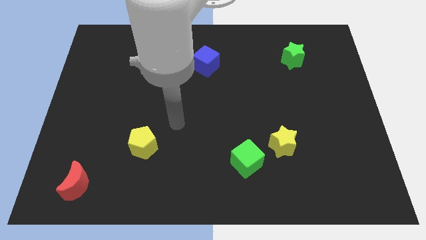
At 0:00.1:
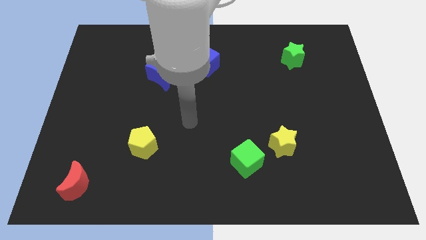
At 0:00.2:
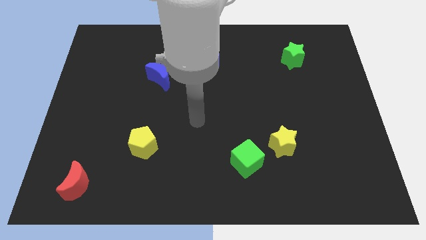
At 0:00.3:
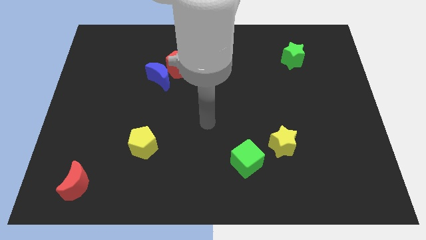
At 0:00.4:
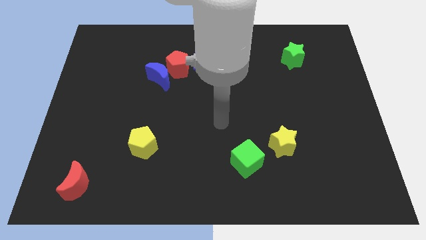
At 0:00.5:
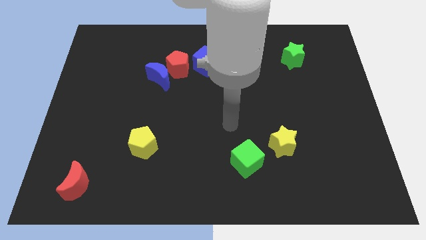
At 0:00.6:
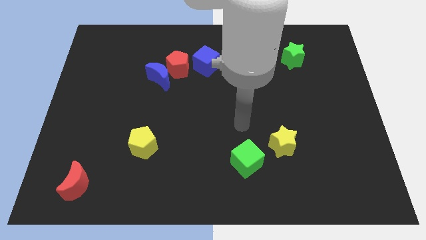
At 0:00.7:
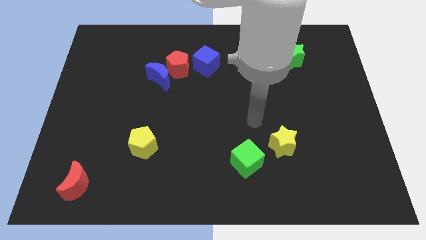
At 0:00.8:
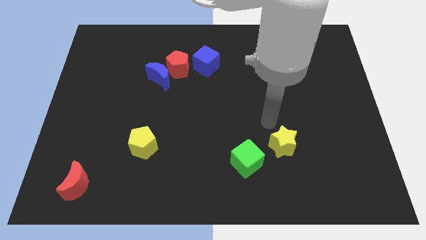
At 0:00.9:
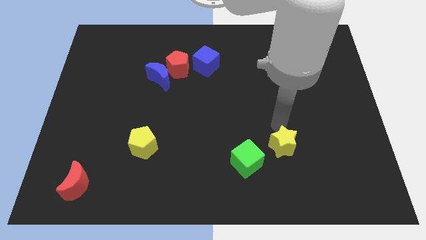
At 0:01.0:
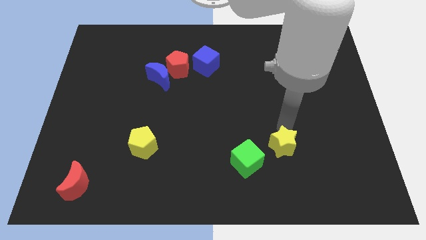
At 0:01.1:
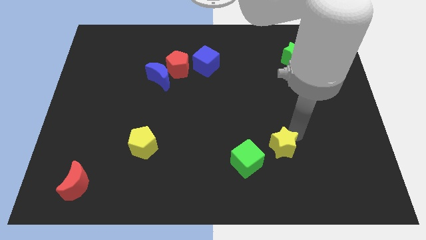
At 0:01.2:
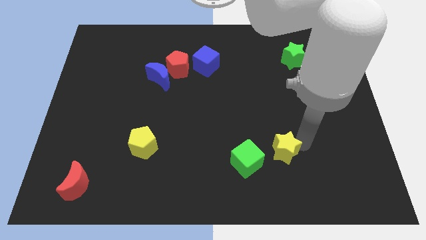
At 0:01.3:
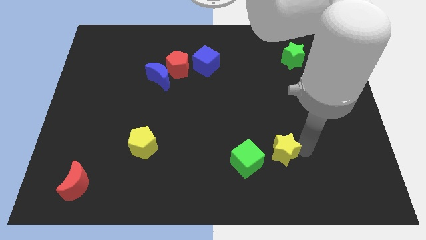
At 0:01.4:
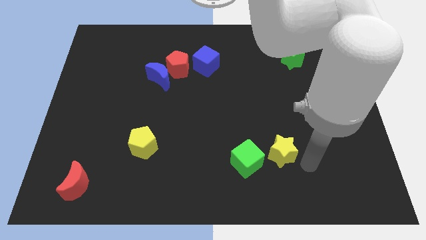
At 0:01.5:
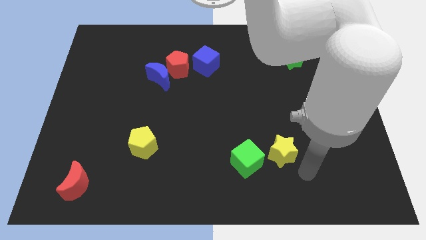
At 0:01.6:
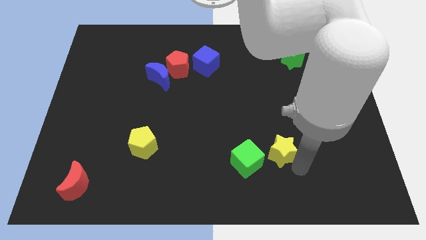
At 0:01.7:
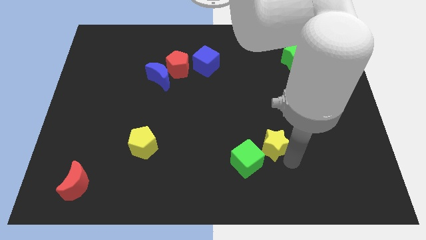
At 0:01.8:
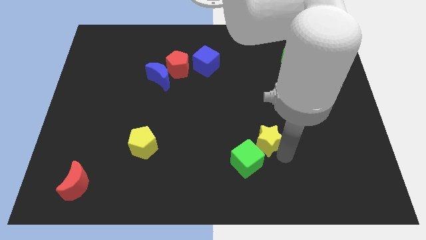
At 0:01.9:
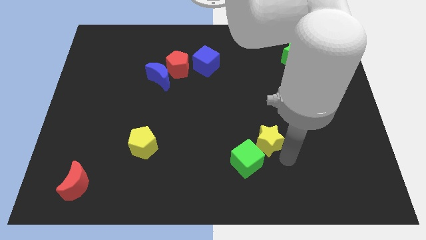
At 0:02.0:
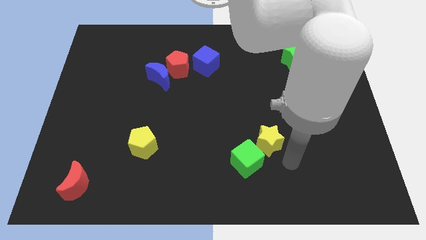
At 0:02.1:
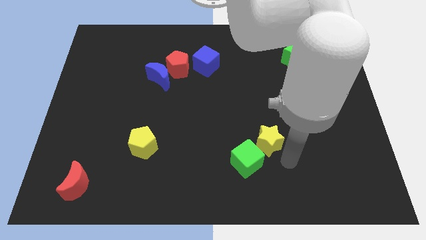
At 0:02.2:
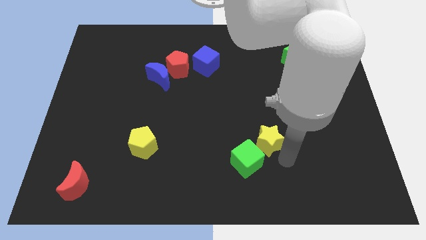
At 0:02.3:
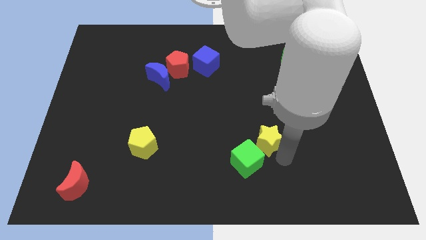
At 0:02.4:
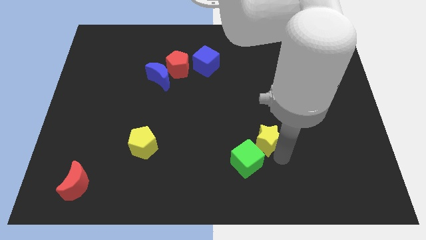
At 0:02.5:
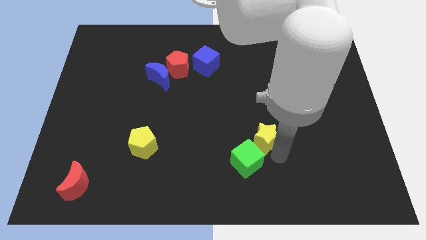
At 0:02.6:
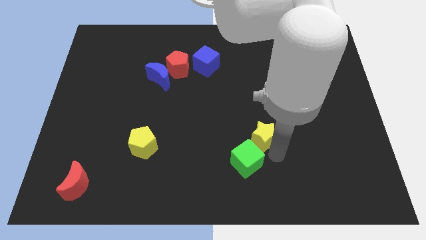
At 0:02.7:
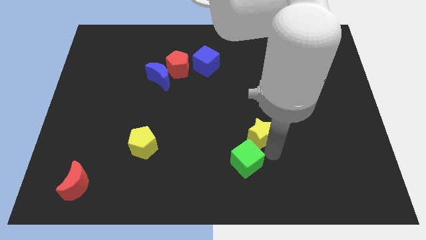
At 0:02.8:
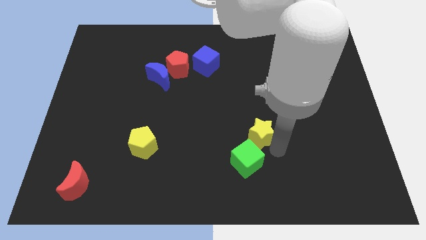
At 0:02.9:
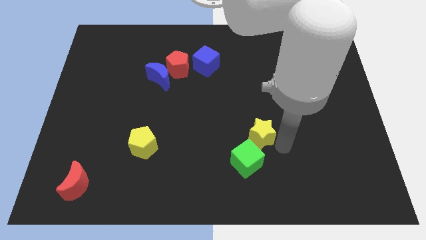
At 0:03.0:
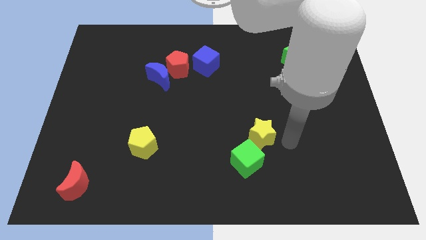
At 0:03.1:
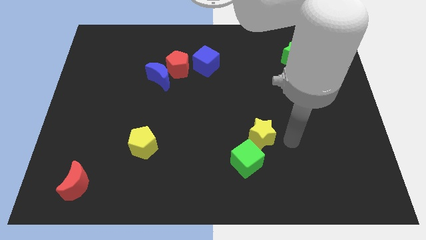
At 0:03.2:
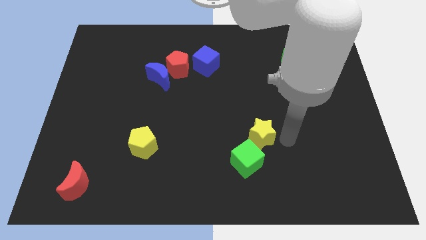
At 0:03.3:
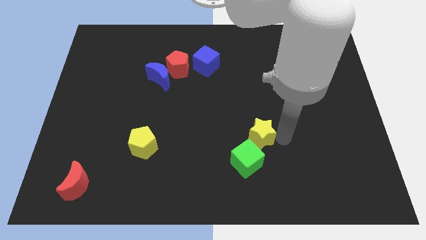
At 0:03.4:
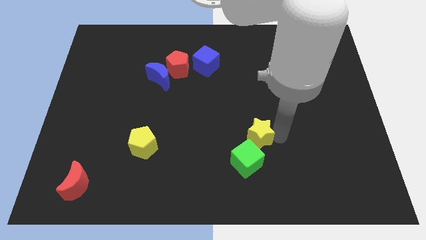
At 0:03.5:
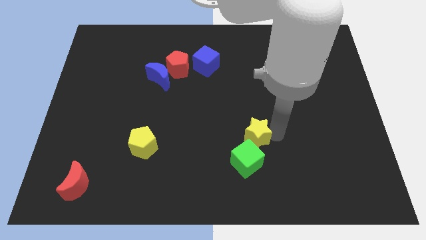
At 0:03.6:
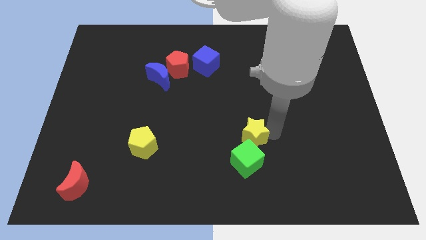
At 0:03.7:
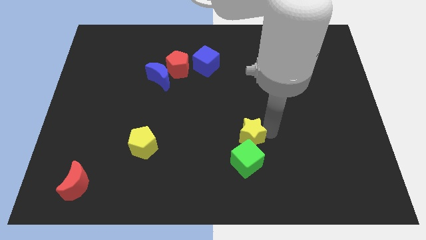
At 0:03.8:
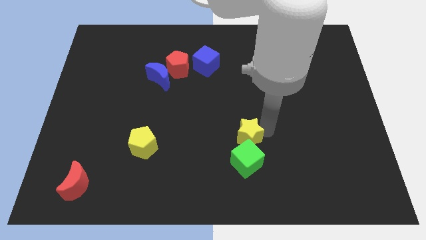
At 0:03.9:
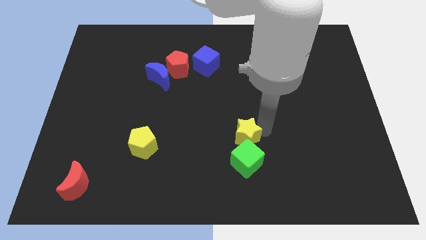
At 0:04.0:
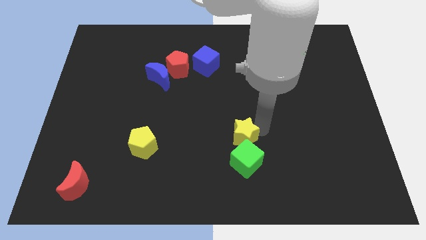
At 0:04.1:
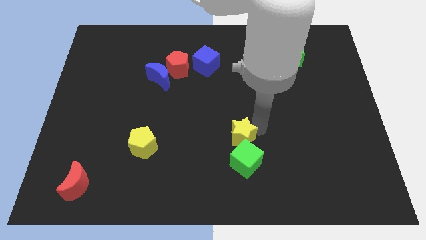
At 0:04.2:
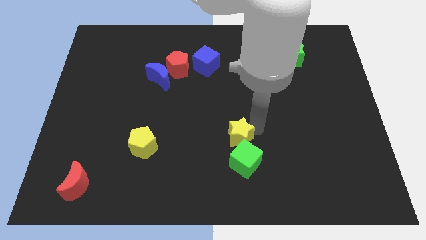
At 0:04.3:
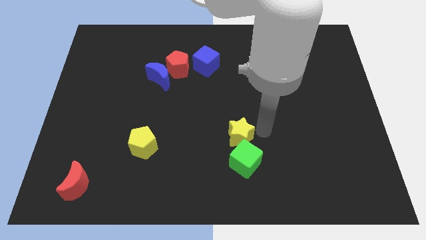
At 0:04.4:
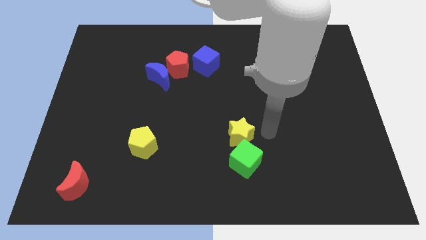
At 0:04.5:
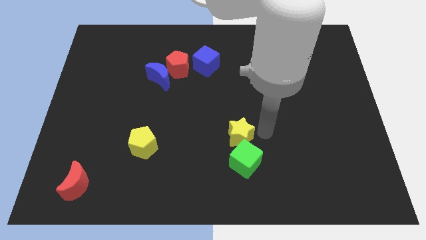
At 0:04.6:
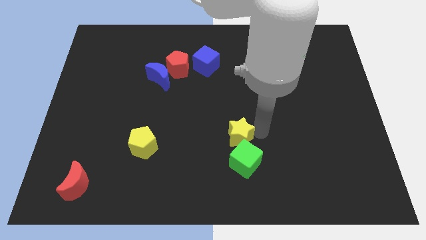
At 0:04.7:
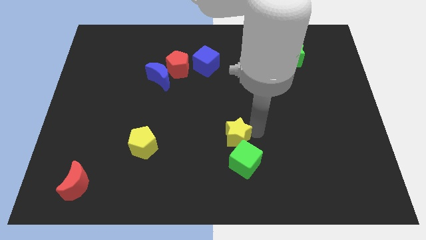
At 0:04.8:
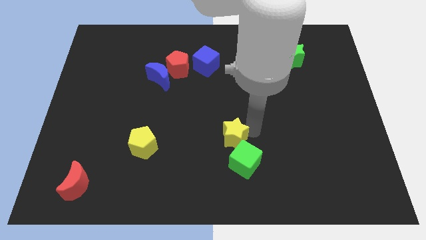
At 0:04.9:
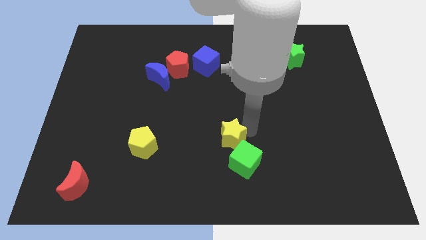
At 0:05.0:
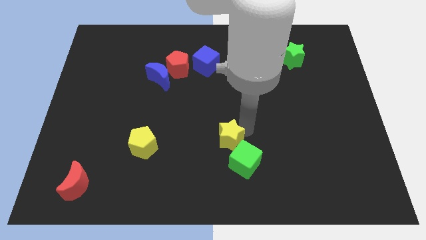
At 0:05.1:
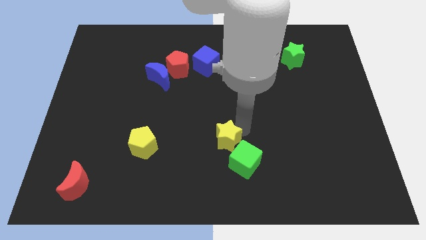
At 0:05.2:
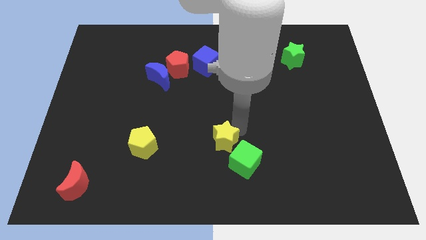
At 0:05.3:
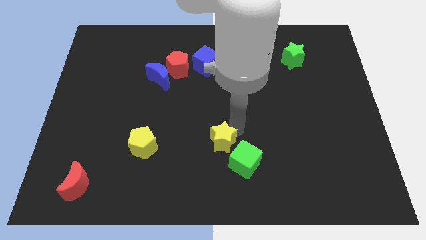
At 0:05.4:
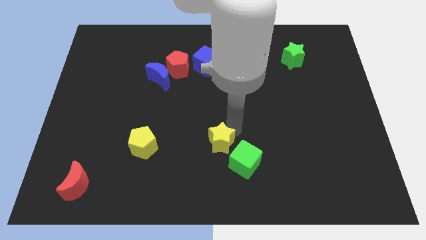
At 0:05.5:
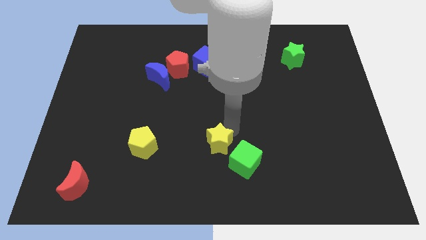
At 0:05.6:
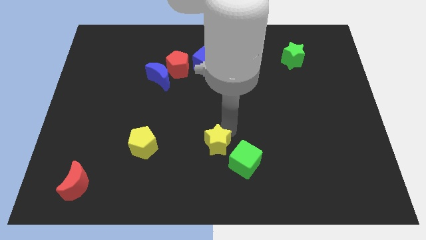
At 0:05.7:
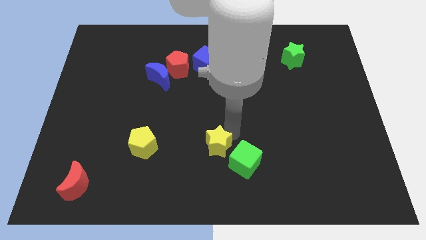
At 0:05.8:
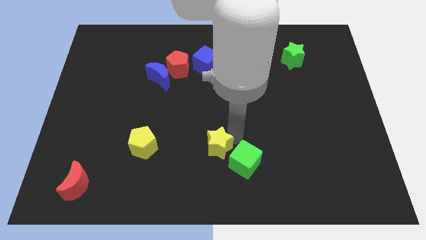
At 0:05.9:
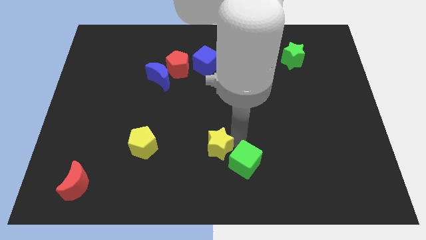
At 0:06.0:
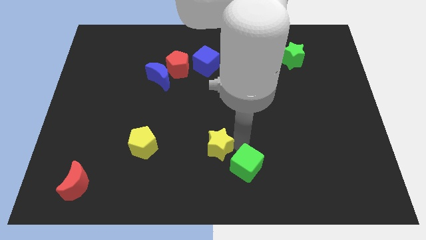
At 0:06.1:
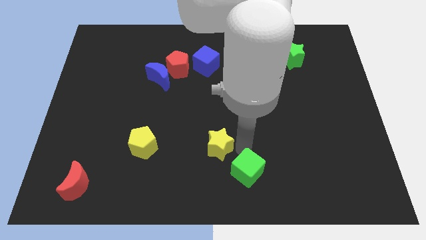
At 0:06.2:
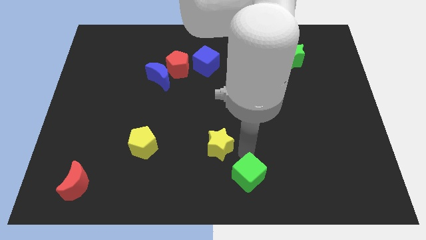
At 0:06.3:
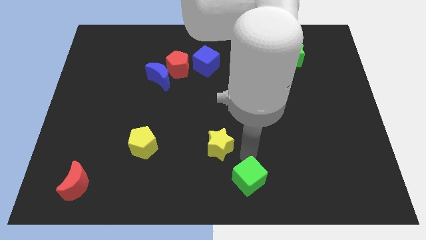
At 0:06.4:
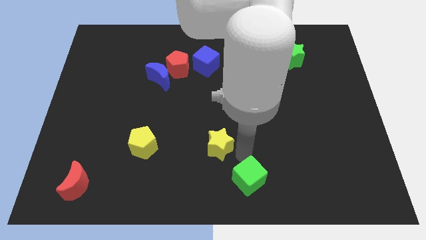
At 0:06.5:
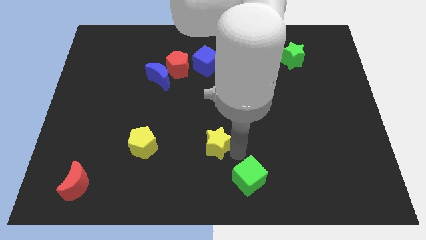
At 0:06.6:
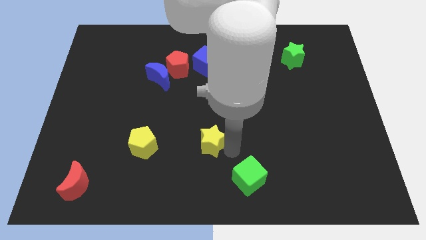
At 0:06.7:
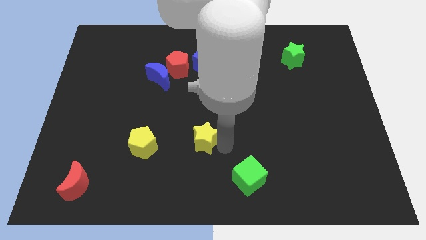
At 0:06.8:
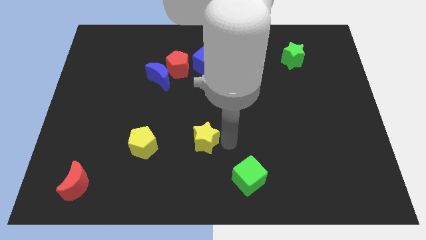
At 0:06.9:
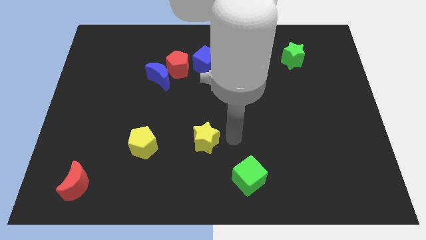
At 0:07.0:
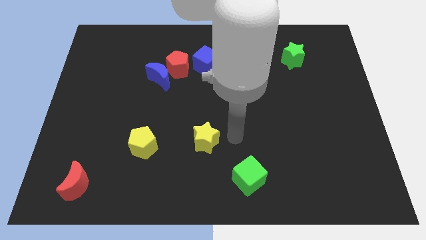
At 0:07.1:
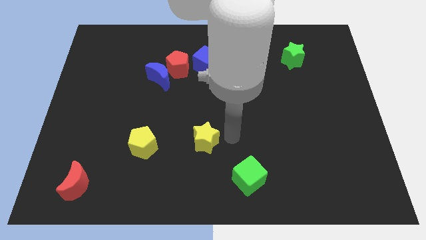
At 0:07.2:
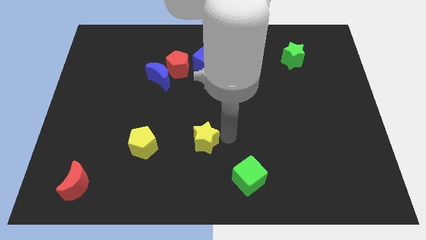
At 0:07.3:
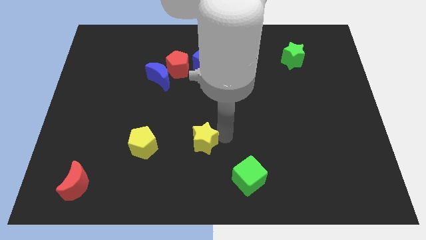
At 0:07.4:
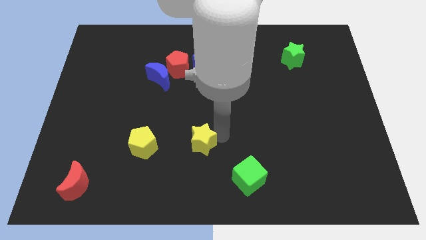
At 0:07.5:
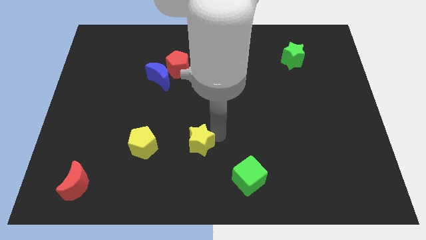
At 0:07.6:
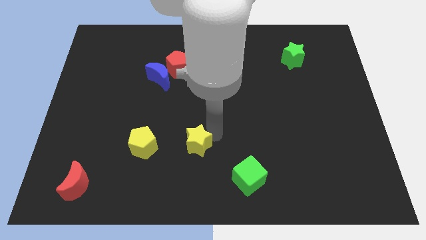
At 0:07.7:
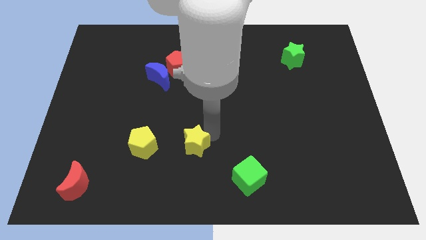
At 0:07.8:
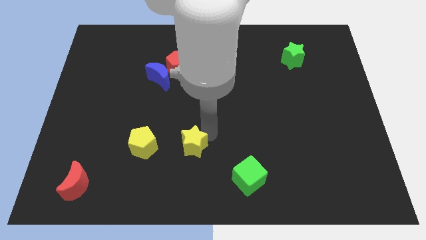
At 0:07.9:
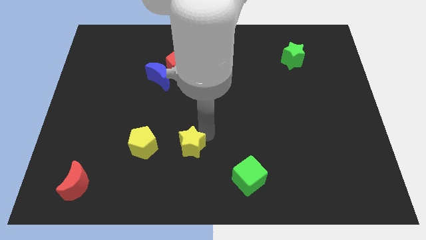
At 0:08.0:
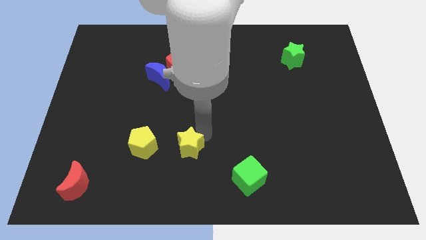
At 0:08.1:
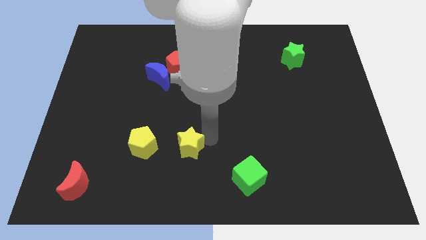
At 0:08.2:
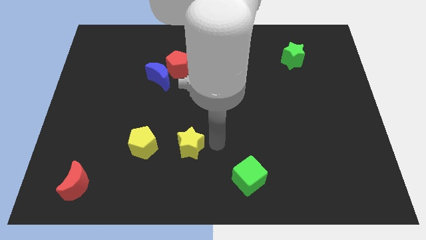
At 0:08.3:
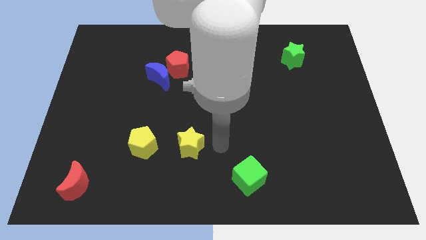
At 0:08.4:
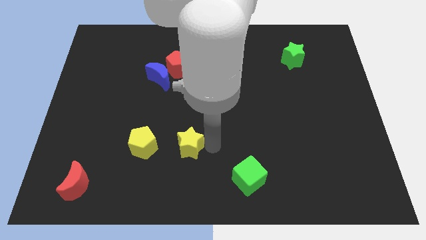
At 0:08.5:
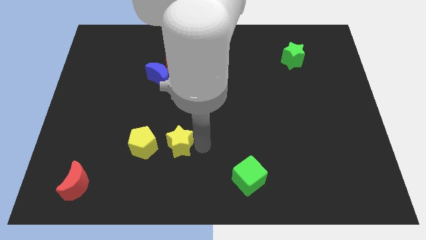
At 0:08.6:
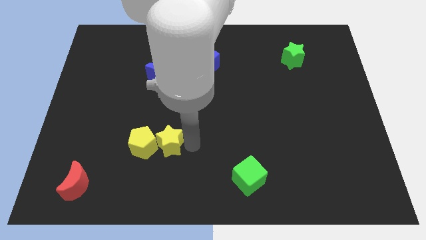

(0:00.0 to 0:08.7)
slide the yellow star next to the yellow pentagon
